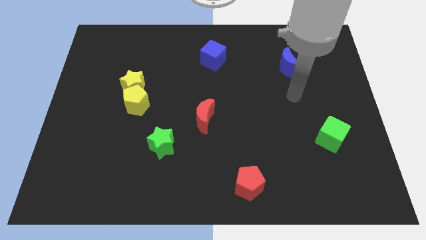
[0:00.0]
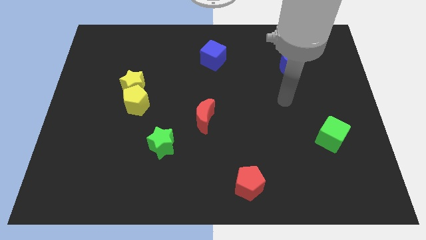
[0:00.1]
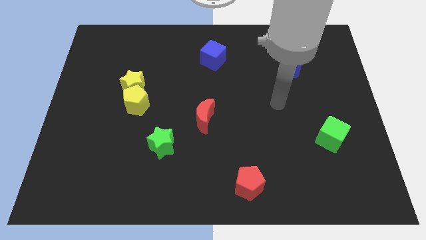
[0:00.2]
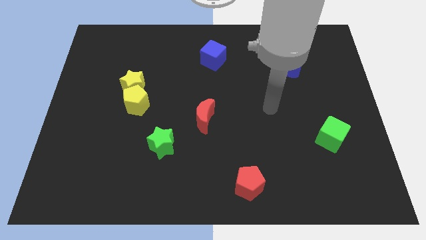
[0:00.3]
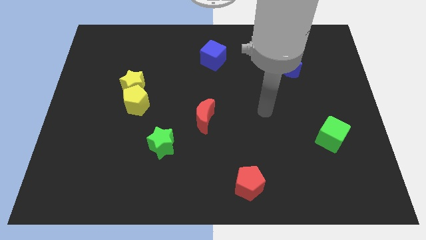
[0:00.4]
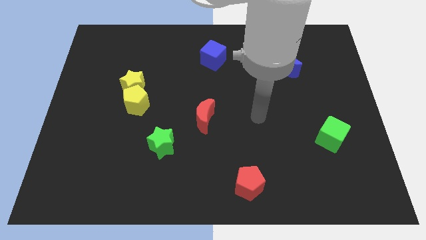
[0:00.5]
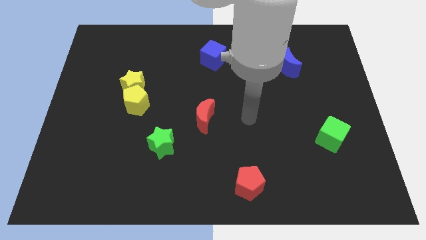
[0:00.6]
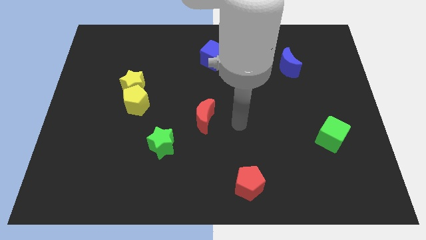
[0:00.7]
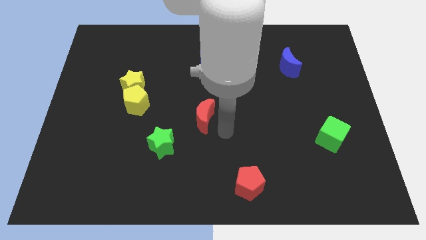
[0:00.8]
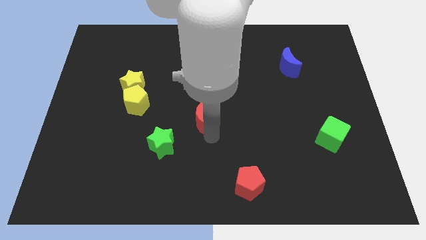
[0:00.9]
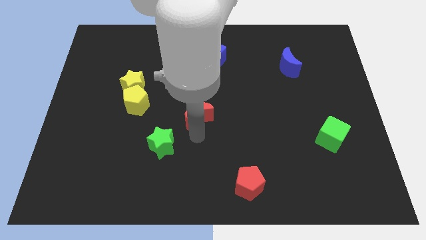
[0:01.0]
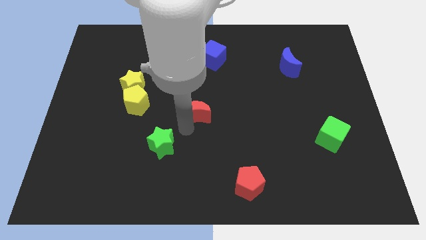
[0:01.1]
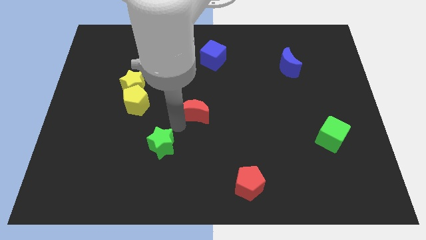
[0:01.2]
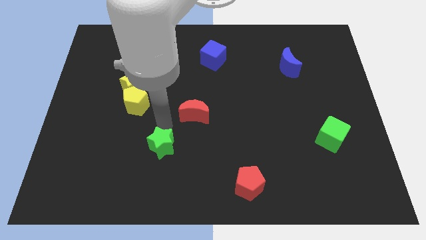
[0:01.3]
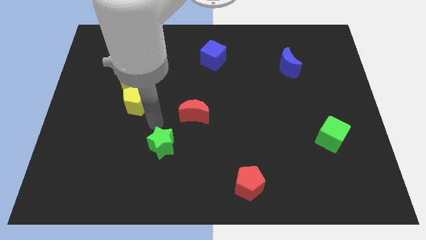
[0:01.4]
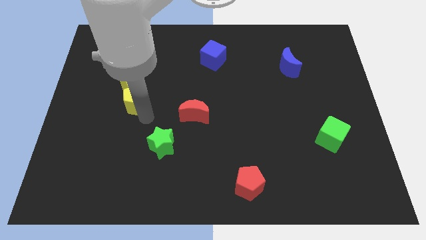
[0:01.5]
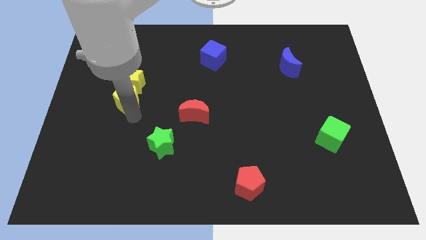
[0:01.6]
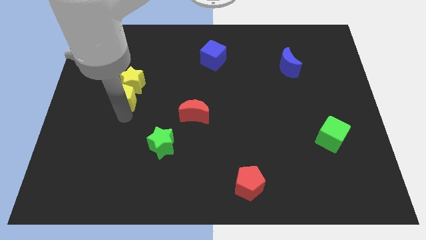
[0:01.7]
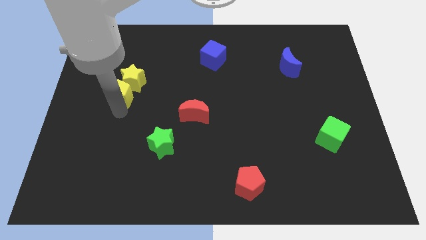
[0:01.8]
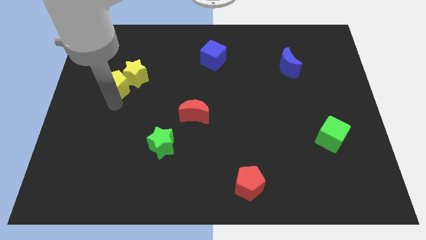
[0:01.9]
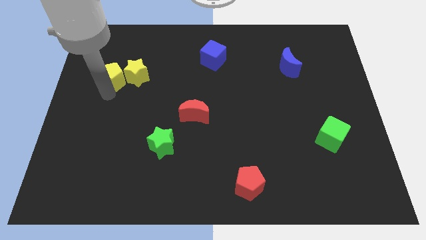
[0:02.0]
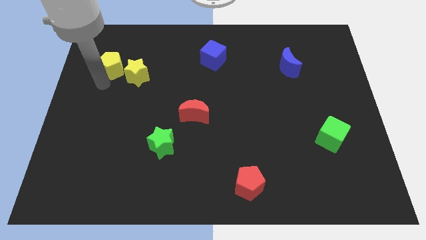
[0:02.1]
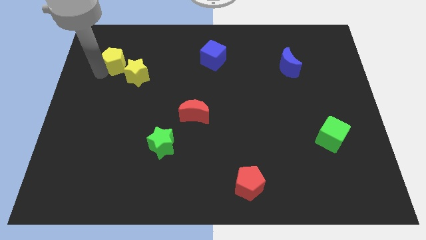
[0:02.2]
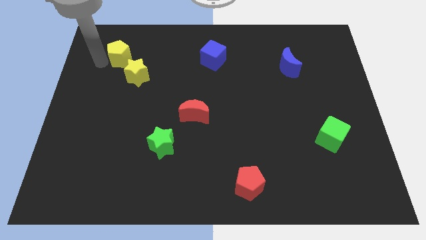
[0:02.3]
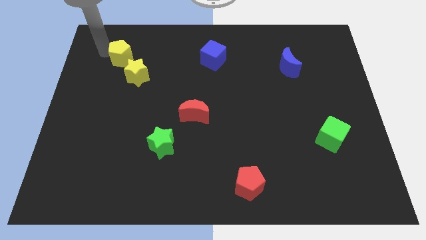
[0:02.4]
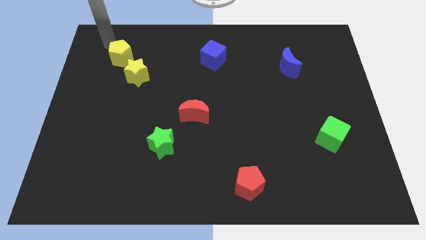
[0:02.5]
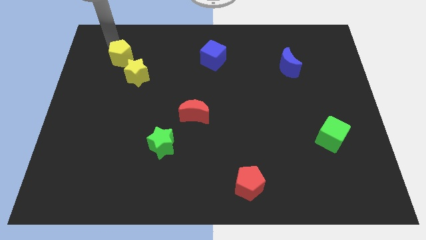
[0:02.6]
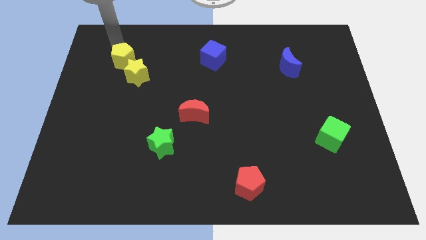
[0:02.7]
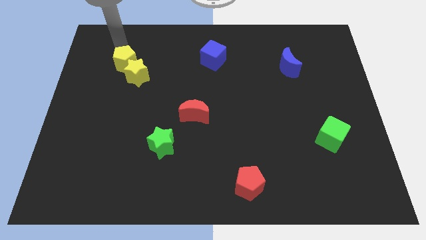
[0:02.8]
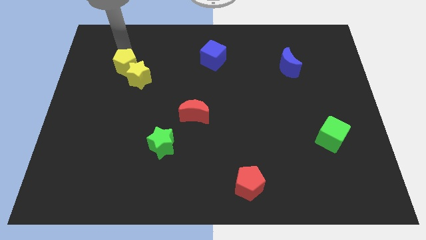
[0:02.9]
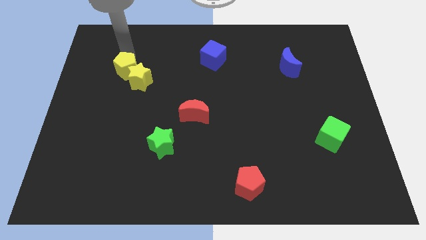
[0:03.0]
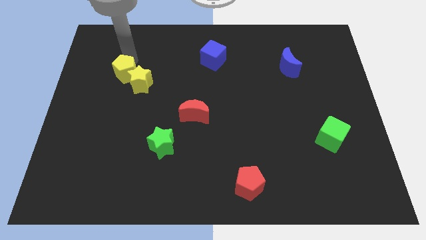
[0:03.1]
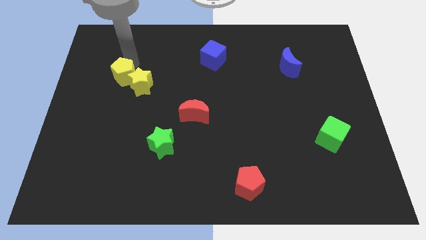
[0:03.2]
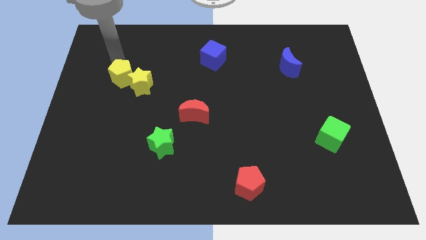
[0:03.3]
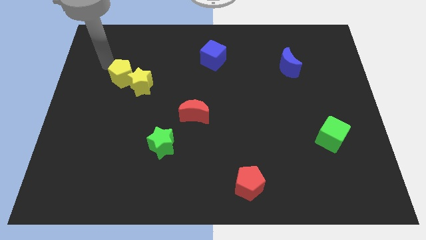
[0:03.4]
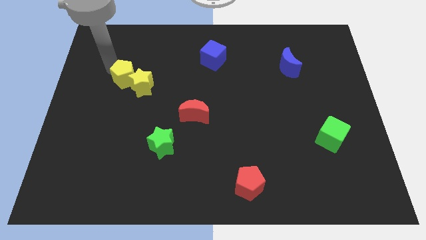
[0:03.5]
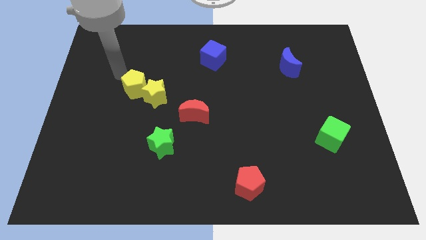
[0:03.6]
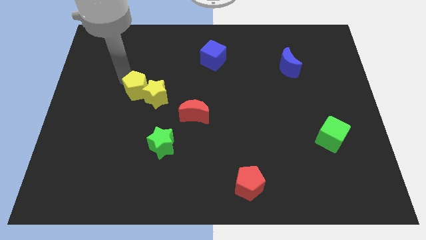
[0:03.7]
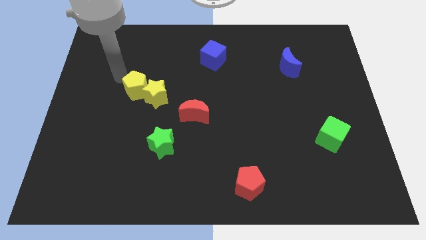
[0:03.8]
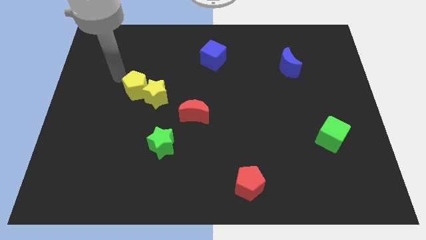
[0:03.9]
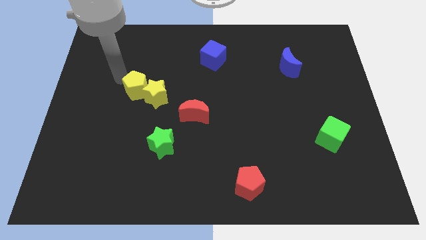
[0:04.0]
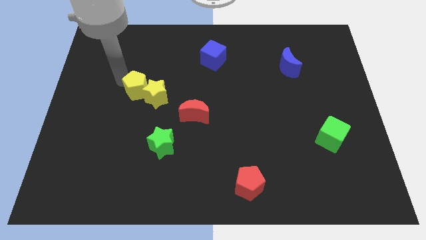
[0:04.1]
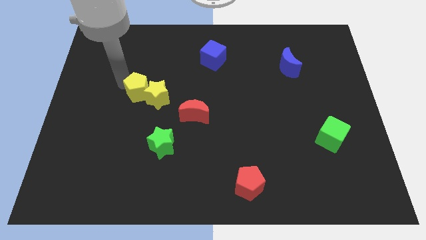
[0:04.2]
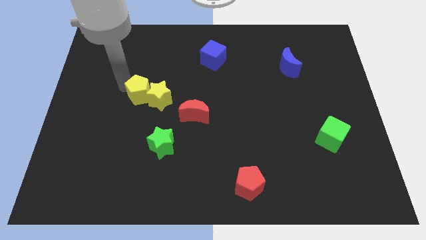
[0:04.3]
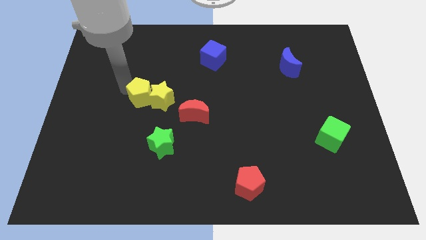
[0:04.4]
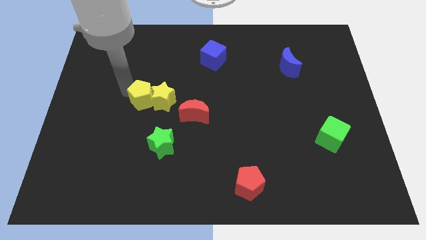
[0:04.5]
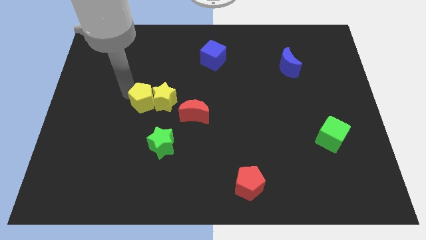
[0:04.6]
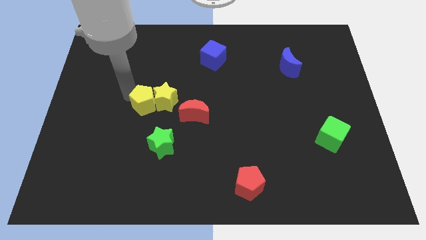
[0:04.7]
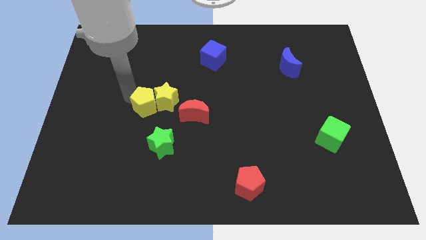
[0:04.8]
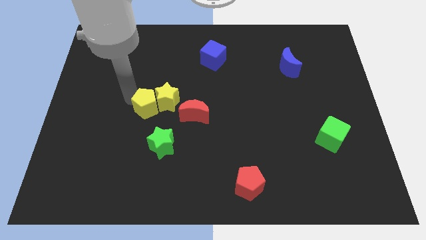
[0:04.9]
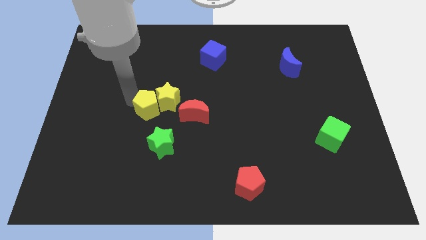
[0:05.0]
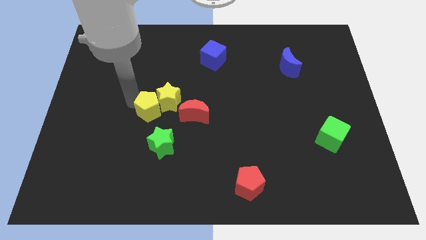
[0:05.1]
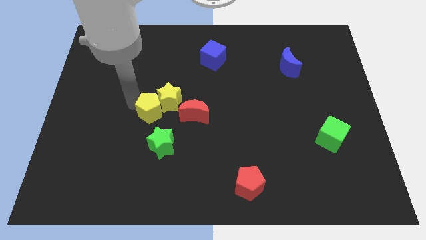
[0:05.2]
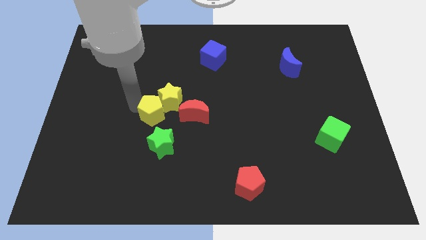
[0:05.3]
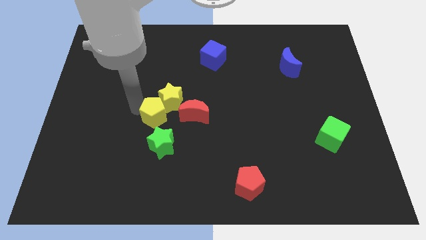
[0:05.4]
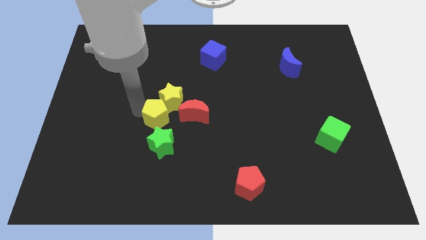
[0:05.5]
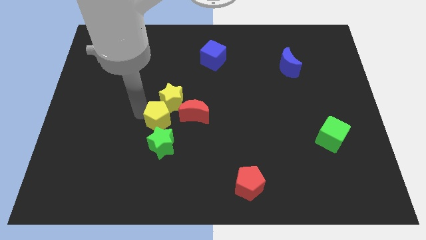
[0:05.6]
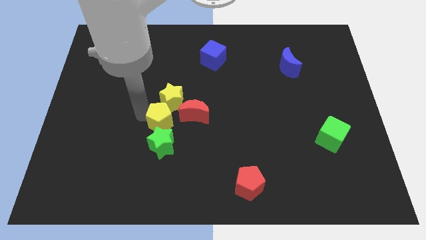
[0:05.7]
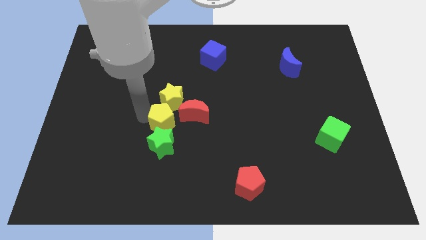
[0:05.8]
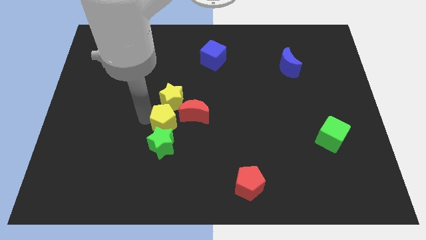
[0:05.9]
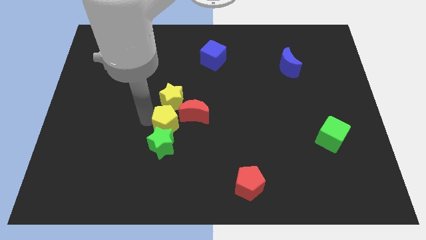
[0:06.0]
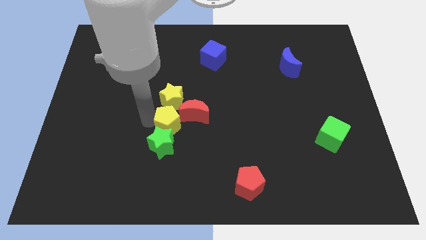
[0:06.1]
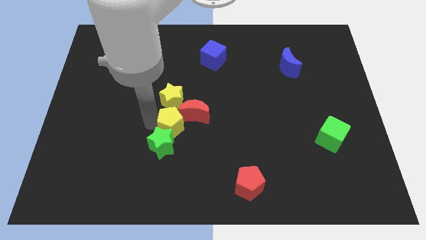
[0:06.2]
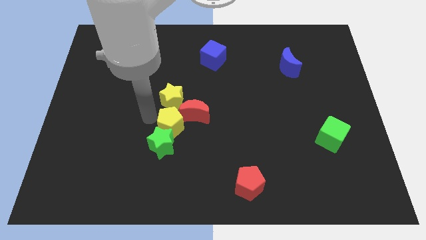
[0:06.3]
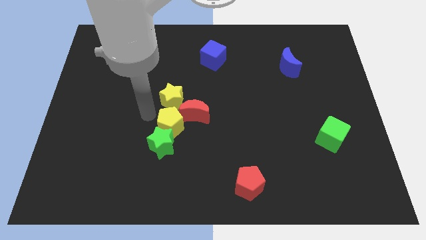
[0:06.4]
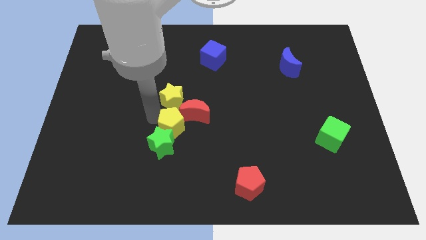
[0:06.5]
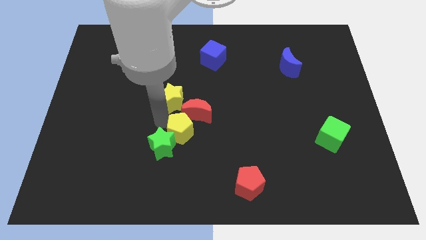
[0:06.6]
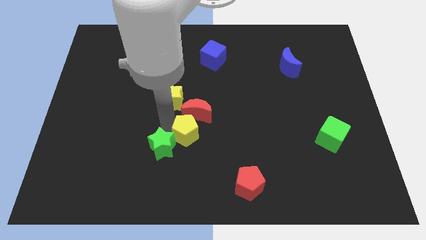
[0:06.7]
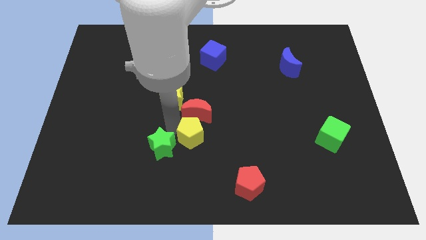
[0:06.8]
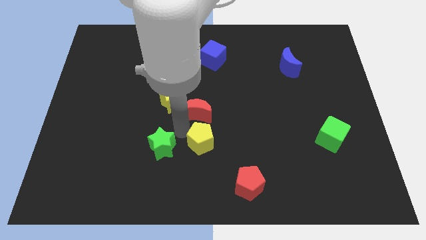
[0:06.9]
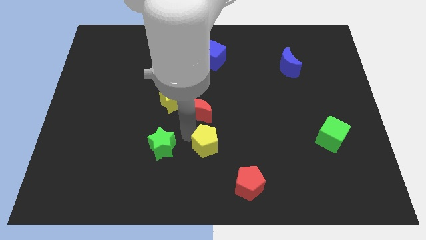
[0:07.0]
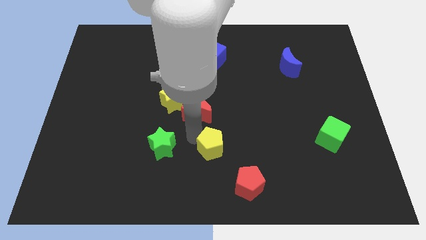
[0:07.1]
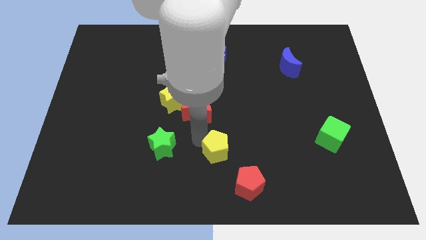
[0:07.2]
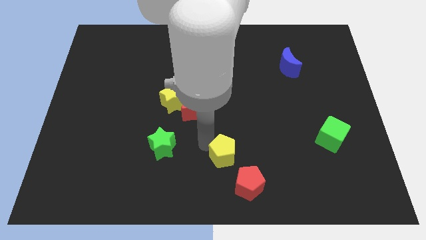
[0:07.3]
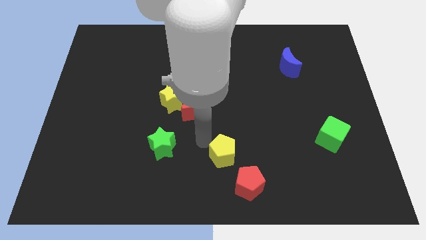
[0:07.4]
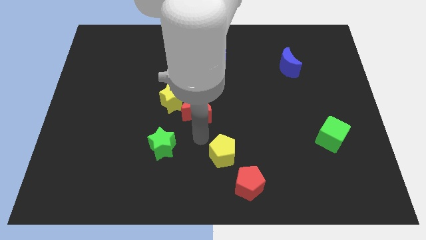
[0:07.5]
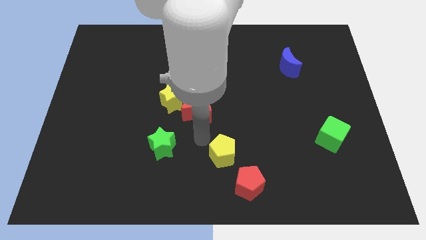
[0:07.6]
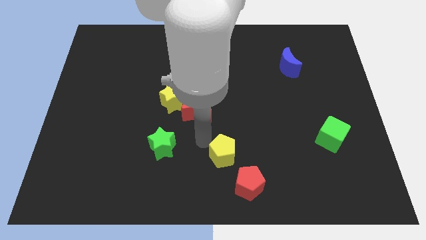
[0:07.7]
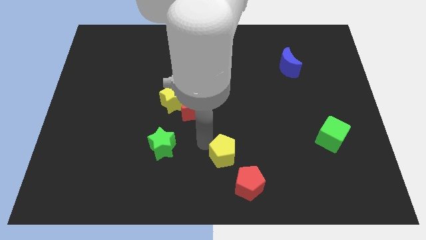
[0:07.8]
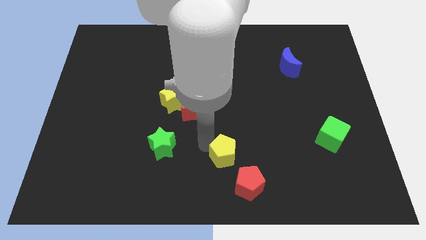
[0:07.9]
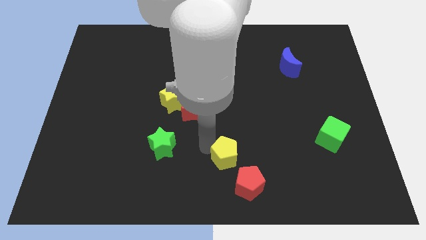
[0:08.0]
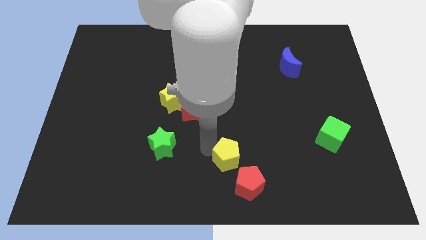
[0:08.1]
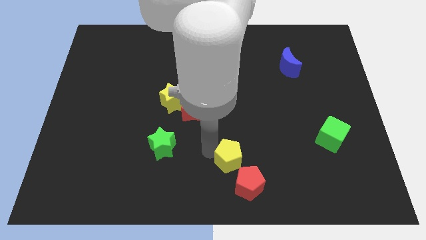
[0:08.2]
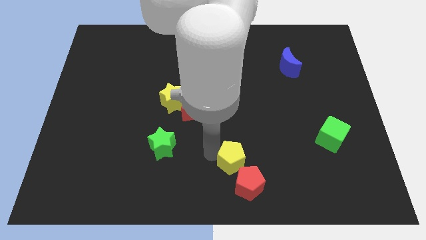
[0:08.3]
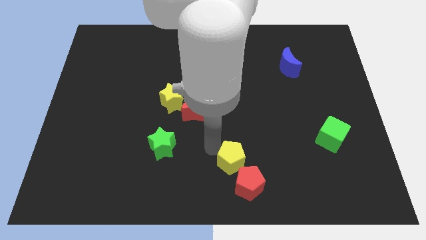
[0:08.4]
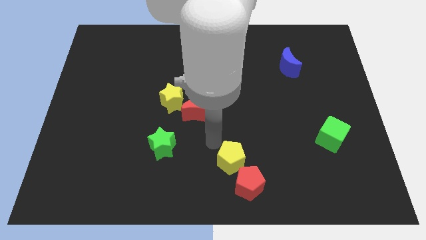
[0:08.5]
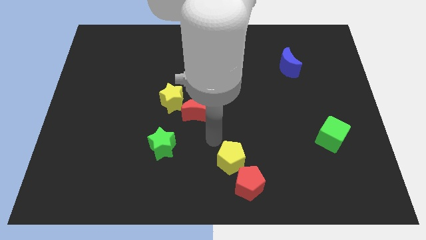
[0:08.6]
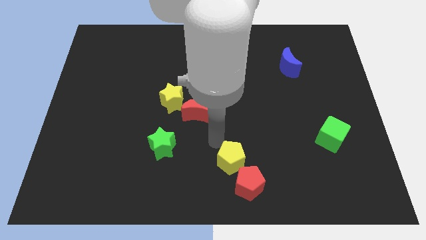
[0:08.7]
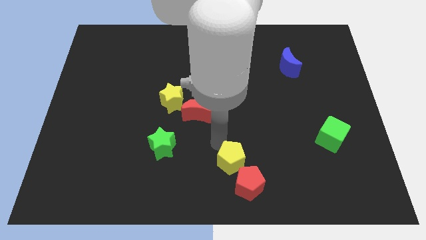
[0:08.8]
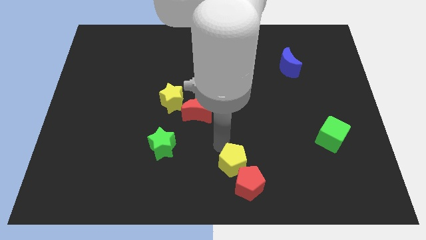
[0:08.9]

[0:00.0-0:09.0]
move the yellow pentagon next to the red pentagon
